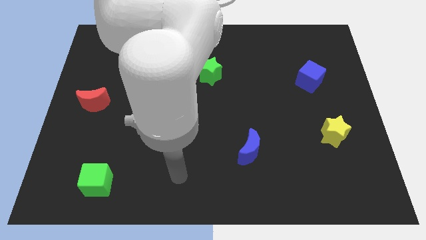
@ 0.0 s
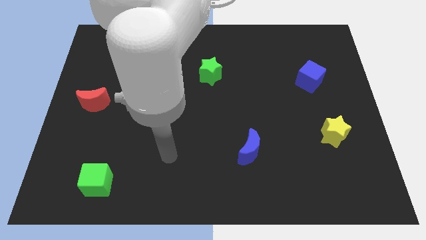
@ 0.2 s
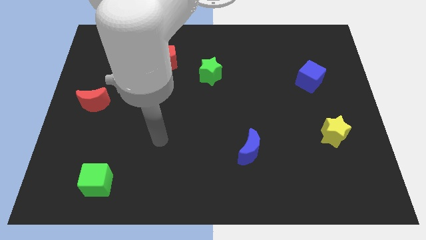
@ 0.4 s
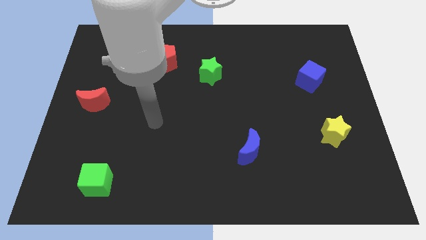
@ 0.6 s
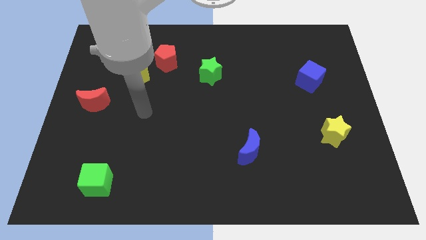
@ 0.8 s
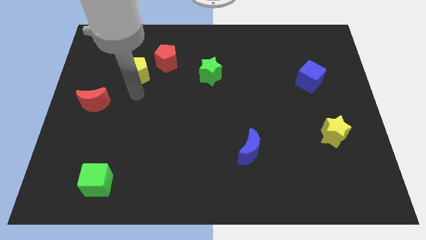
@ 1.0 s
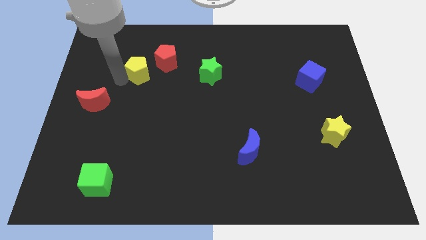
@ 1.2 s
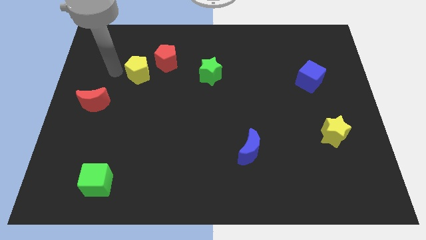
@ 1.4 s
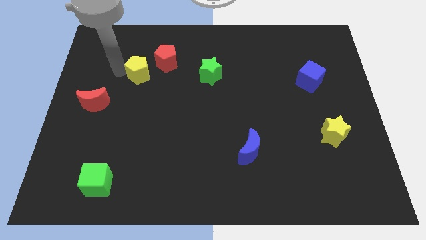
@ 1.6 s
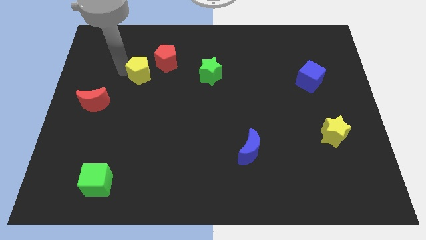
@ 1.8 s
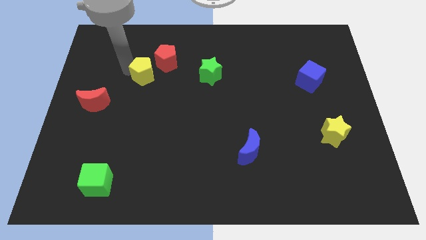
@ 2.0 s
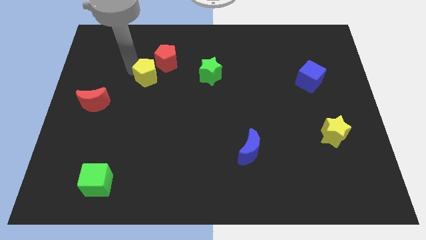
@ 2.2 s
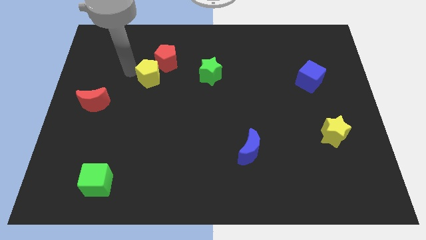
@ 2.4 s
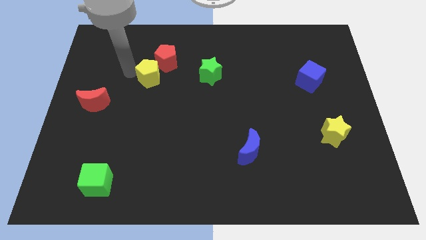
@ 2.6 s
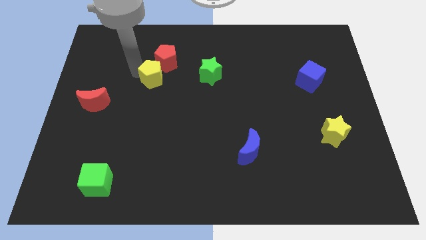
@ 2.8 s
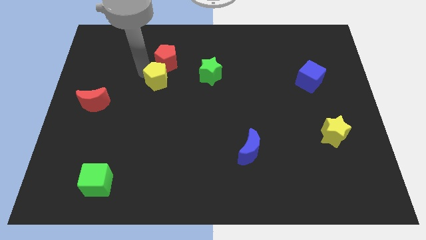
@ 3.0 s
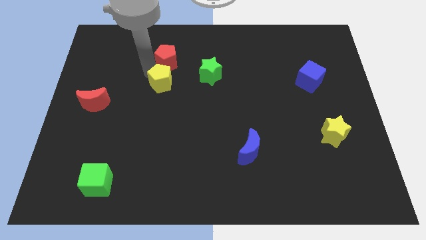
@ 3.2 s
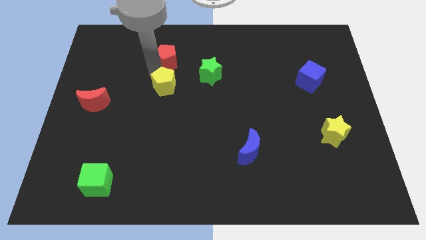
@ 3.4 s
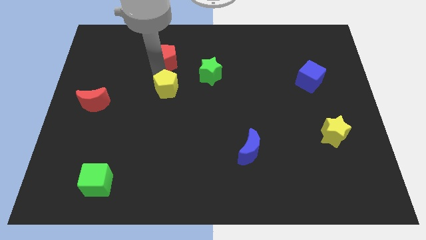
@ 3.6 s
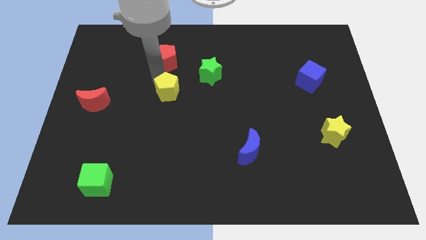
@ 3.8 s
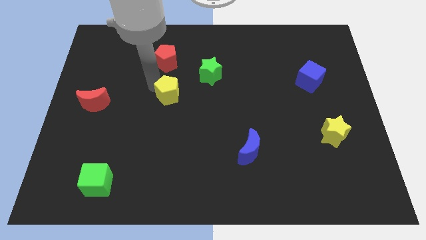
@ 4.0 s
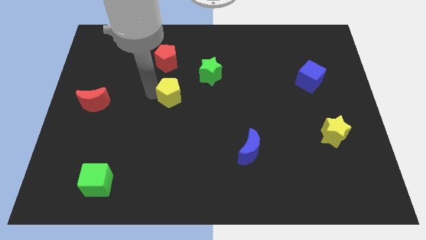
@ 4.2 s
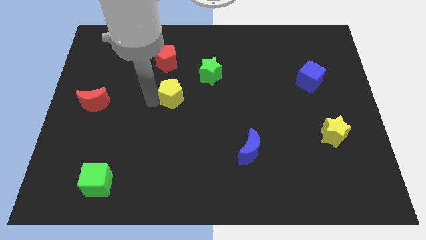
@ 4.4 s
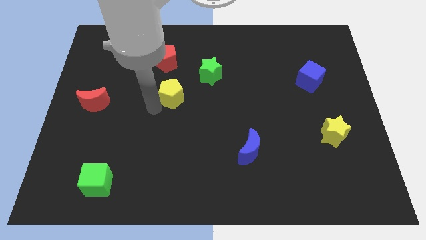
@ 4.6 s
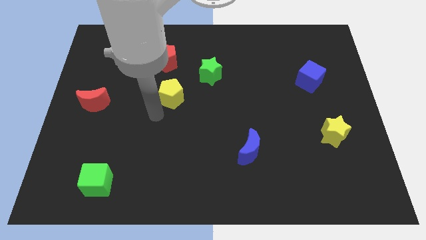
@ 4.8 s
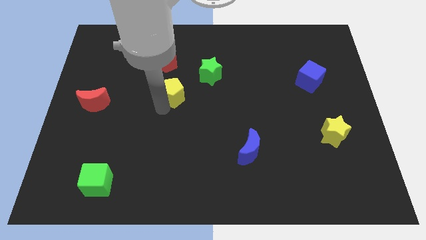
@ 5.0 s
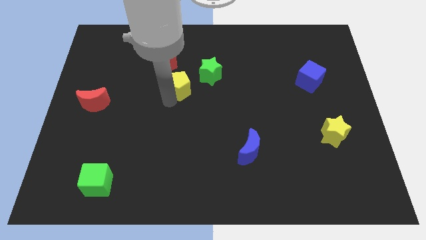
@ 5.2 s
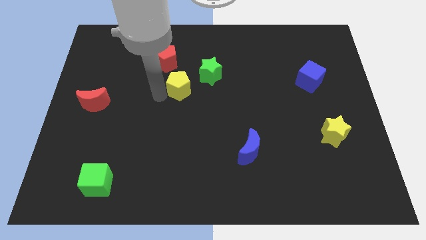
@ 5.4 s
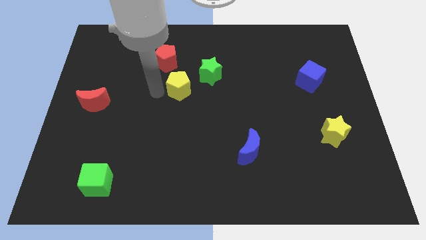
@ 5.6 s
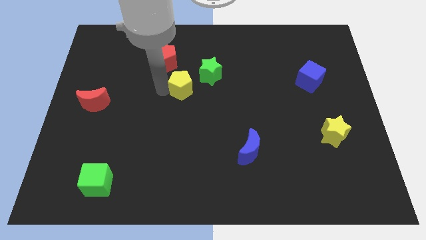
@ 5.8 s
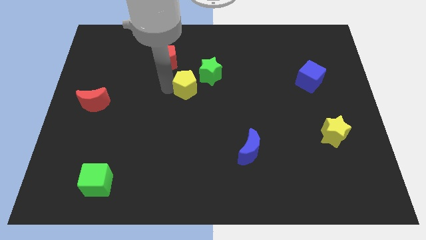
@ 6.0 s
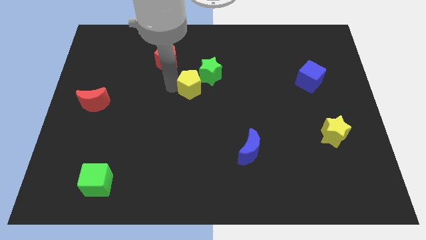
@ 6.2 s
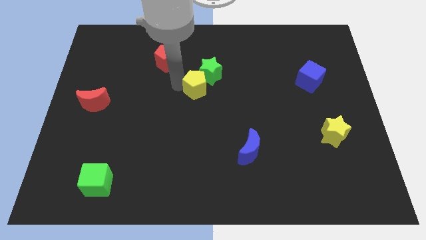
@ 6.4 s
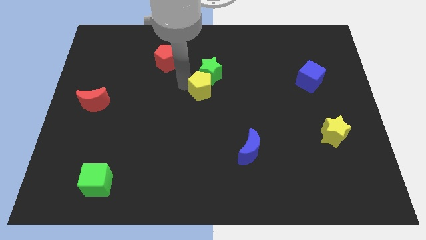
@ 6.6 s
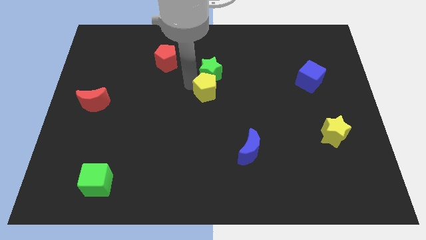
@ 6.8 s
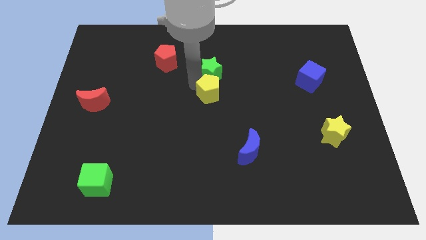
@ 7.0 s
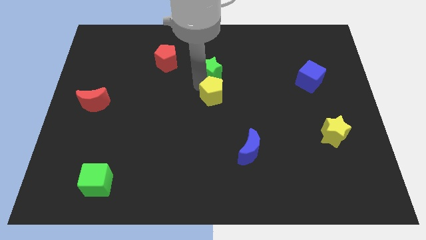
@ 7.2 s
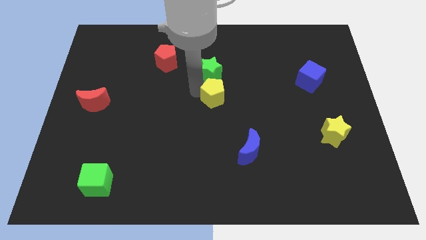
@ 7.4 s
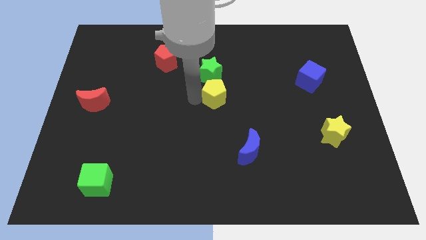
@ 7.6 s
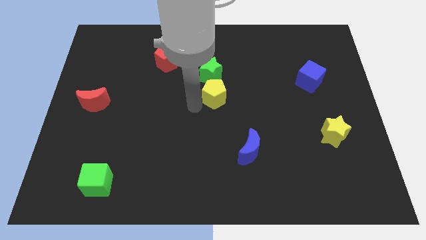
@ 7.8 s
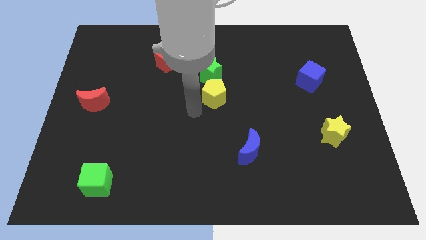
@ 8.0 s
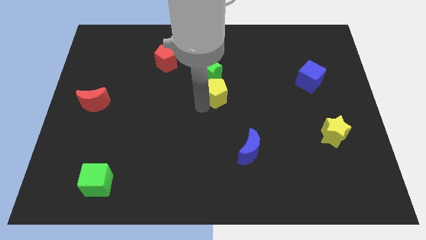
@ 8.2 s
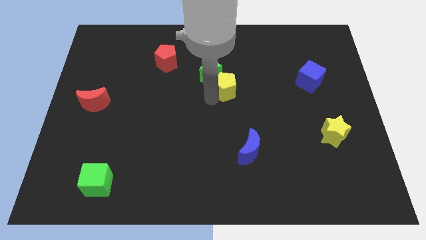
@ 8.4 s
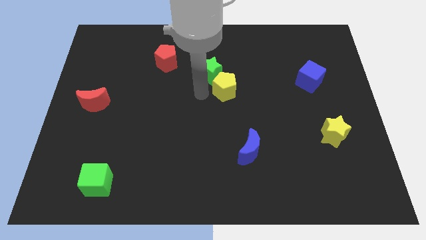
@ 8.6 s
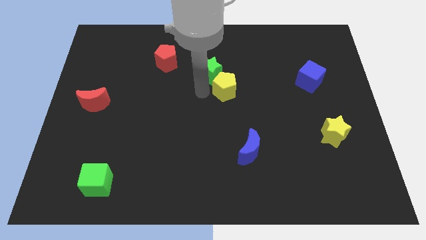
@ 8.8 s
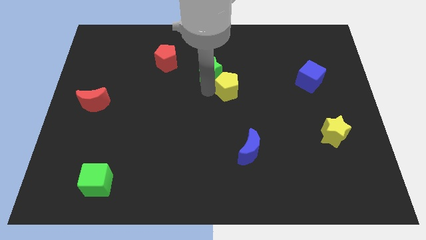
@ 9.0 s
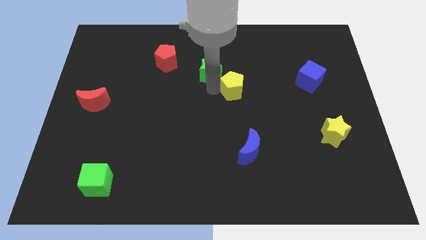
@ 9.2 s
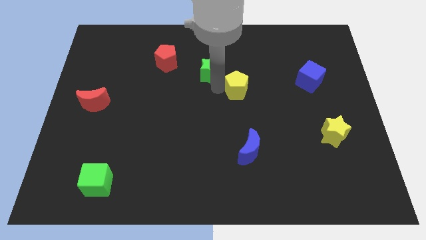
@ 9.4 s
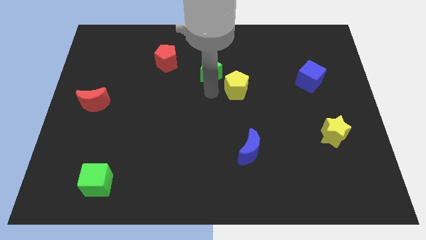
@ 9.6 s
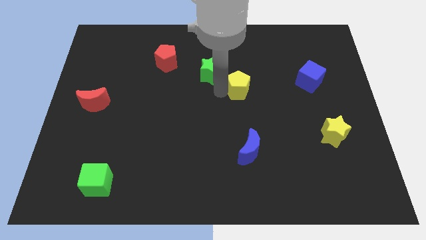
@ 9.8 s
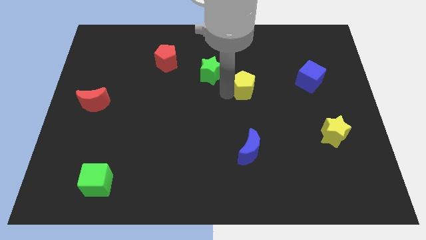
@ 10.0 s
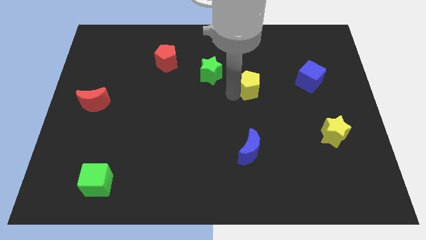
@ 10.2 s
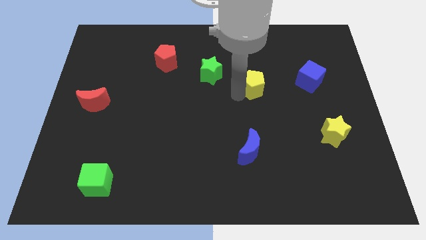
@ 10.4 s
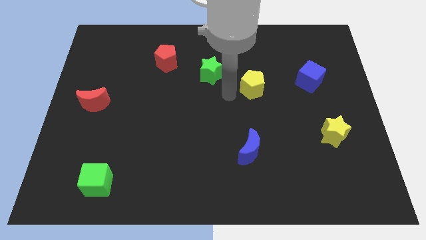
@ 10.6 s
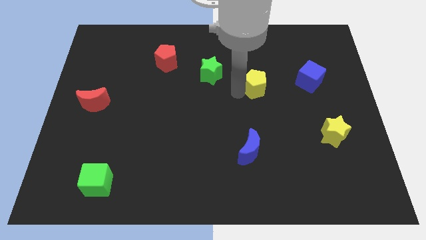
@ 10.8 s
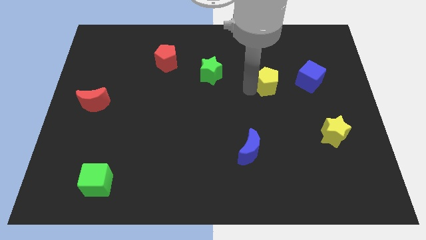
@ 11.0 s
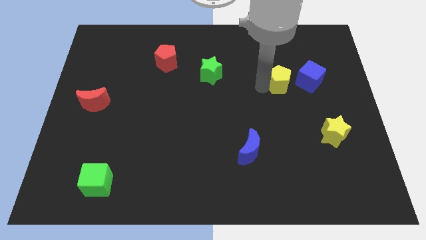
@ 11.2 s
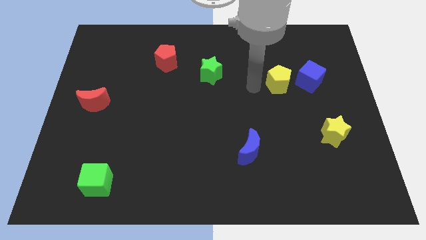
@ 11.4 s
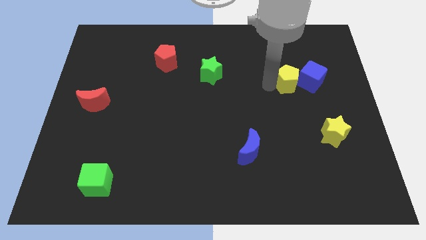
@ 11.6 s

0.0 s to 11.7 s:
put the yellow pentagon to the blue cube

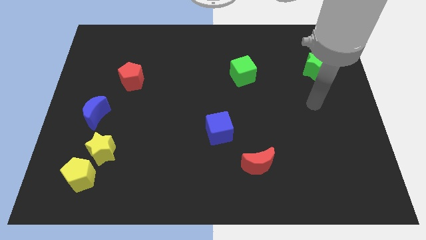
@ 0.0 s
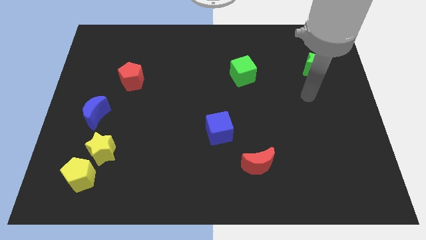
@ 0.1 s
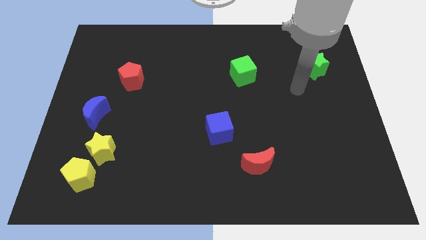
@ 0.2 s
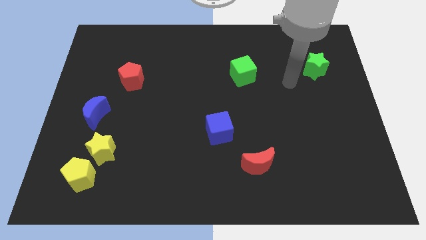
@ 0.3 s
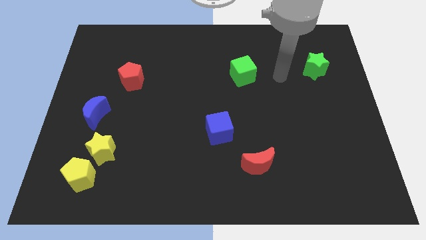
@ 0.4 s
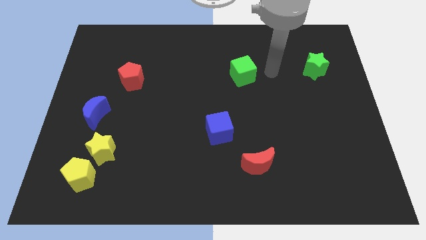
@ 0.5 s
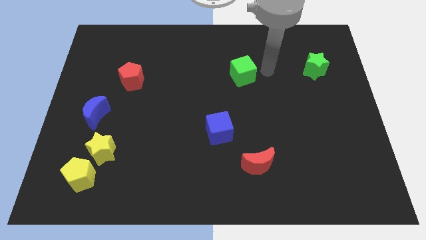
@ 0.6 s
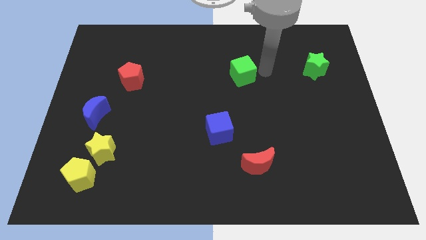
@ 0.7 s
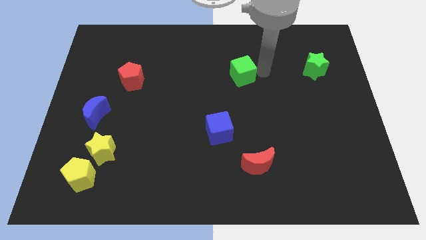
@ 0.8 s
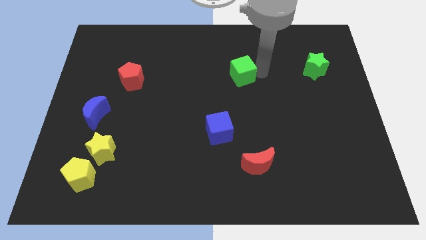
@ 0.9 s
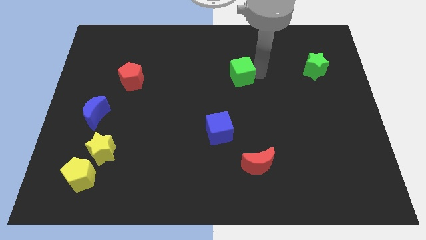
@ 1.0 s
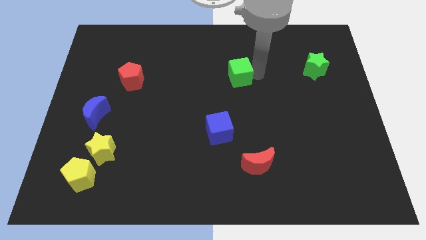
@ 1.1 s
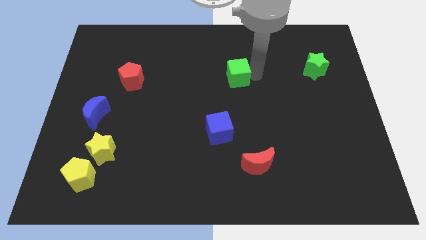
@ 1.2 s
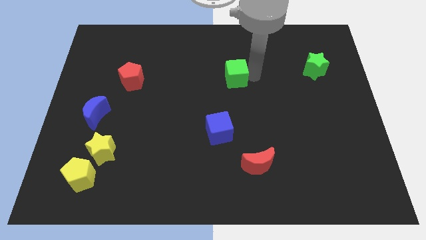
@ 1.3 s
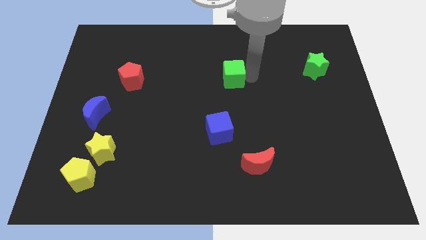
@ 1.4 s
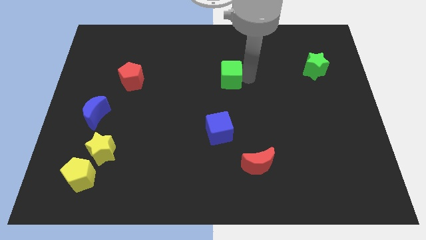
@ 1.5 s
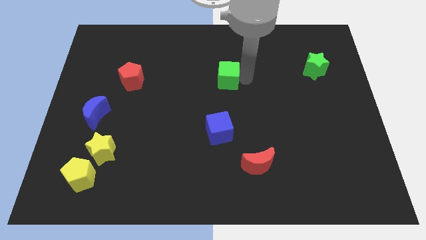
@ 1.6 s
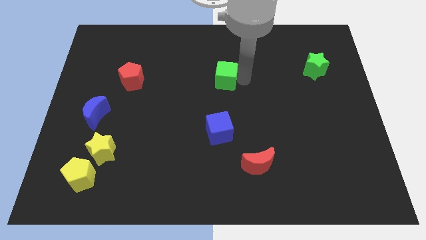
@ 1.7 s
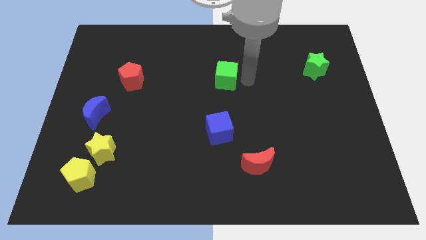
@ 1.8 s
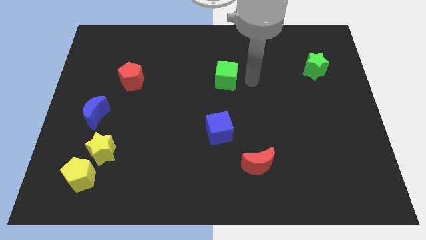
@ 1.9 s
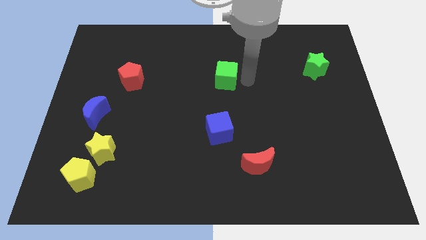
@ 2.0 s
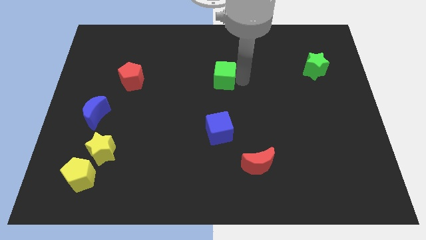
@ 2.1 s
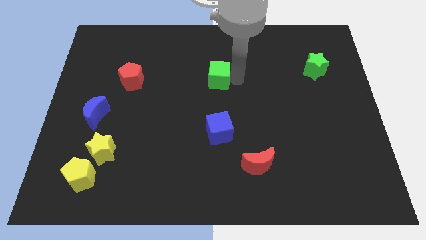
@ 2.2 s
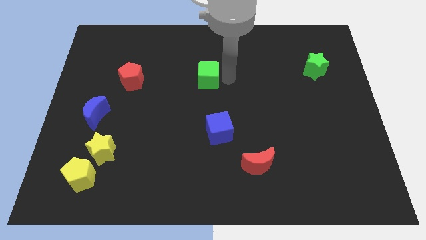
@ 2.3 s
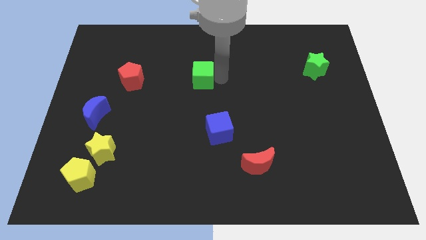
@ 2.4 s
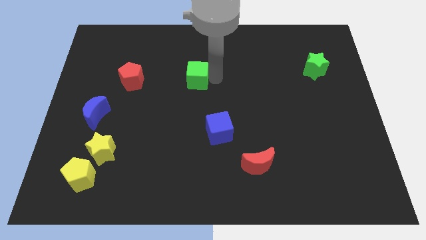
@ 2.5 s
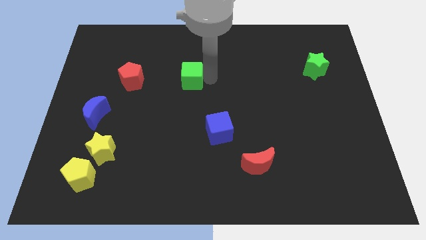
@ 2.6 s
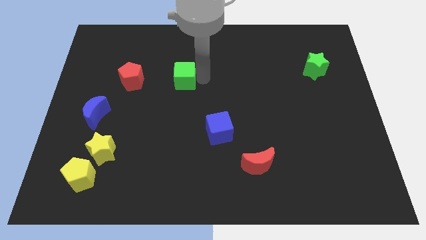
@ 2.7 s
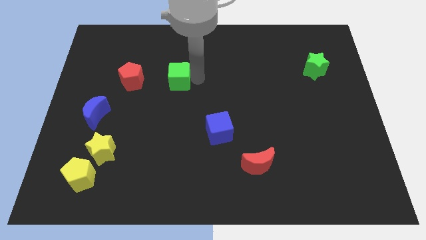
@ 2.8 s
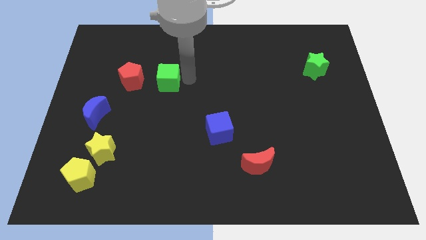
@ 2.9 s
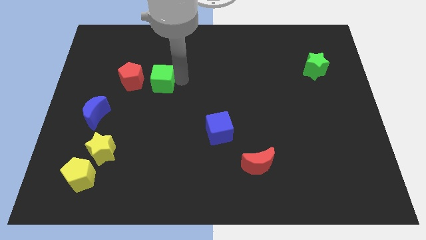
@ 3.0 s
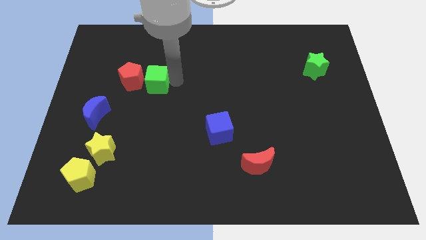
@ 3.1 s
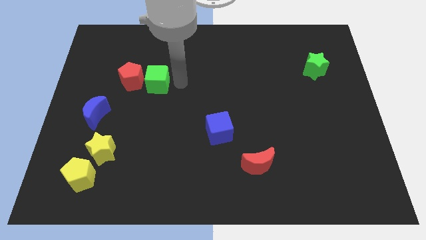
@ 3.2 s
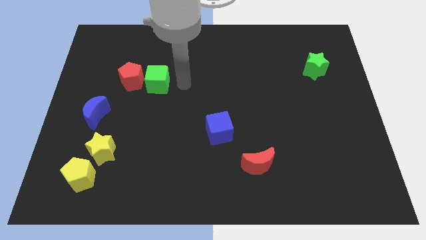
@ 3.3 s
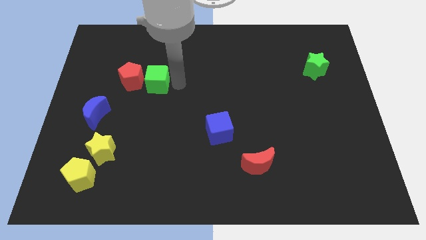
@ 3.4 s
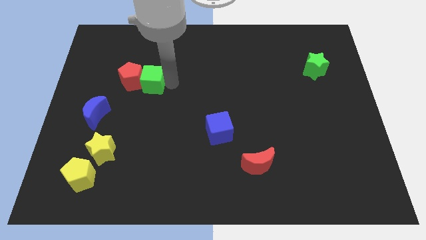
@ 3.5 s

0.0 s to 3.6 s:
put the green cube next to the red pentagon
